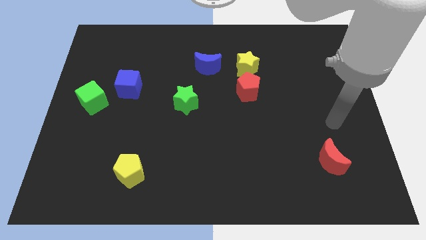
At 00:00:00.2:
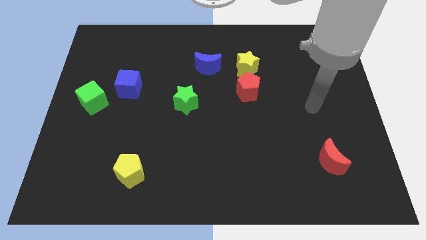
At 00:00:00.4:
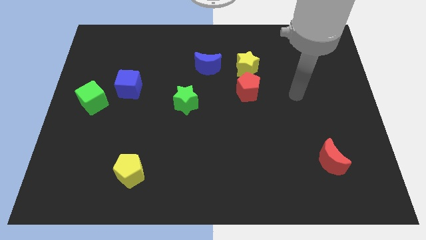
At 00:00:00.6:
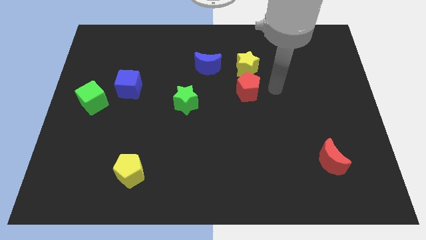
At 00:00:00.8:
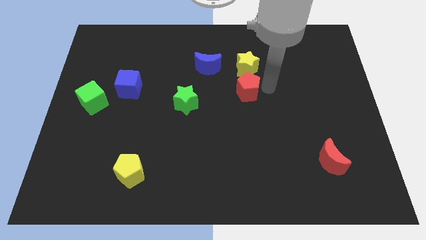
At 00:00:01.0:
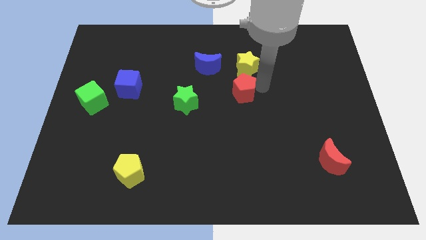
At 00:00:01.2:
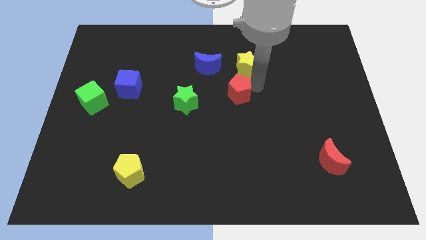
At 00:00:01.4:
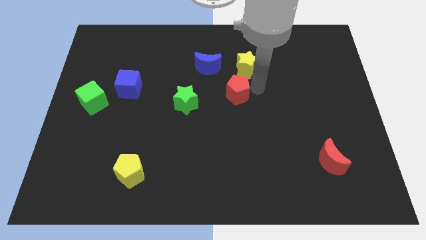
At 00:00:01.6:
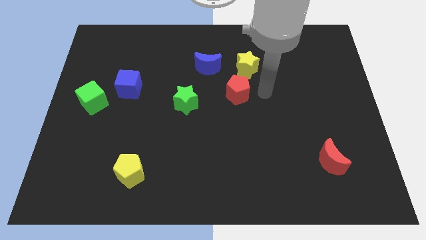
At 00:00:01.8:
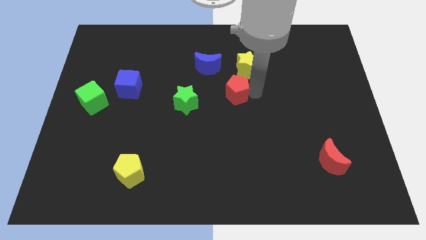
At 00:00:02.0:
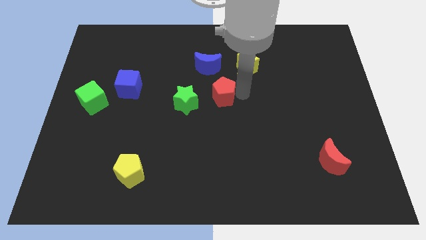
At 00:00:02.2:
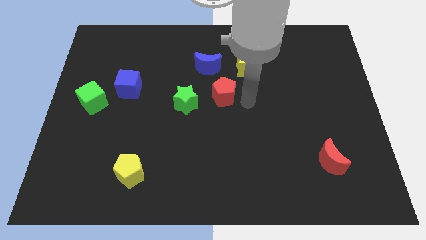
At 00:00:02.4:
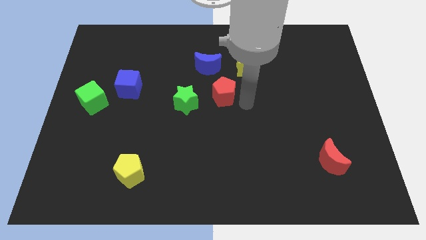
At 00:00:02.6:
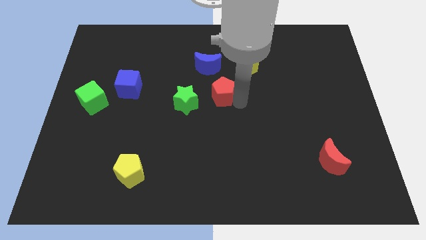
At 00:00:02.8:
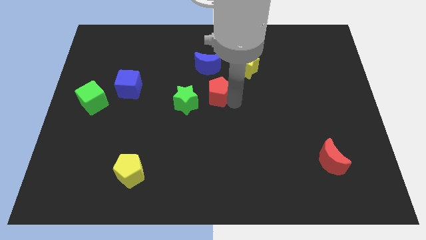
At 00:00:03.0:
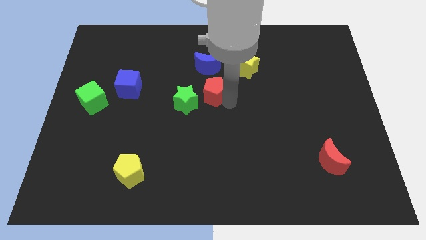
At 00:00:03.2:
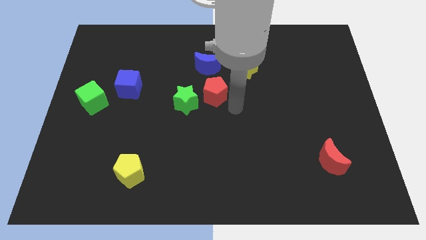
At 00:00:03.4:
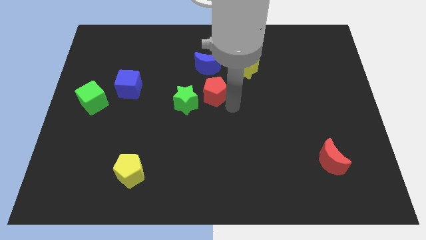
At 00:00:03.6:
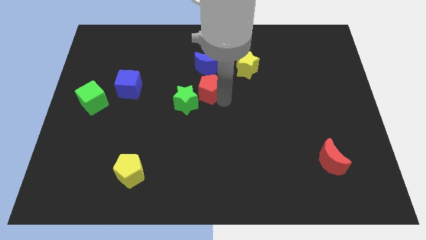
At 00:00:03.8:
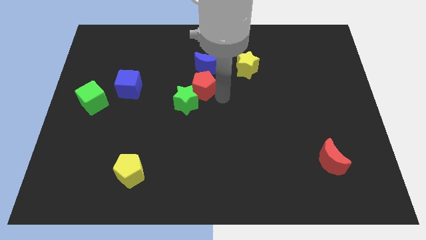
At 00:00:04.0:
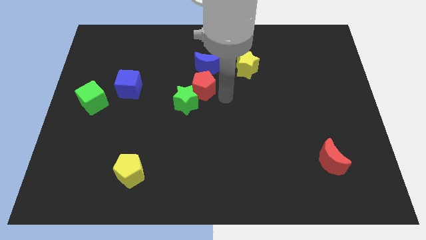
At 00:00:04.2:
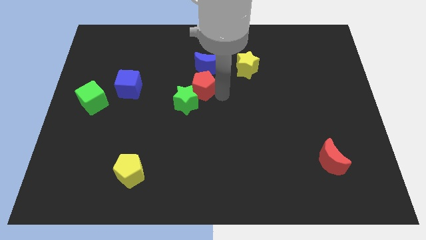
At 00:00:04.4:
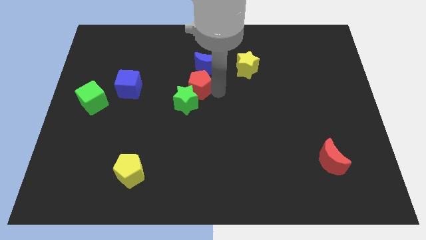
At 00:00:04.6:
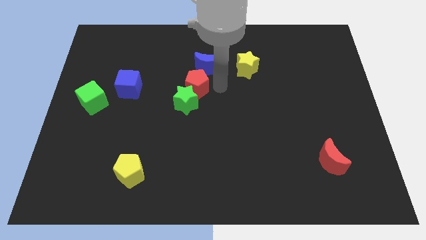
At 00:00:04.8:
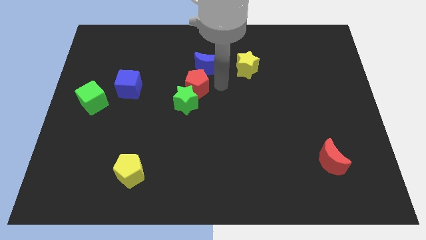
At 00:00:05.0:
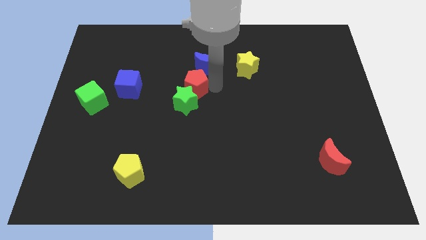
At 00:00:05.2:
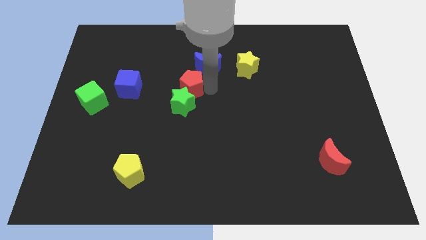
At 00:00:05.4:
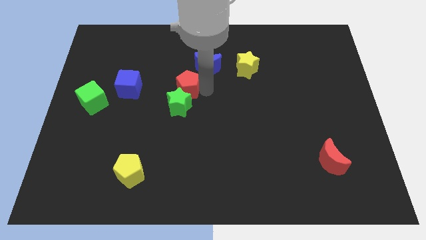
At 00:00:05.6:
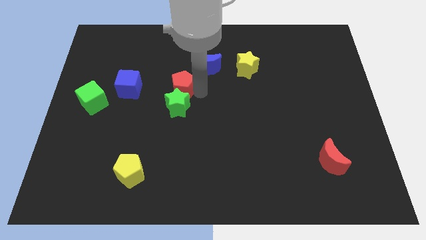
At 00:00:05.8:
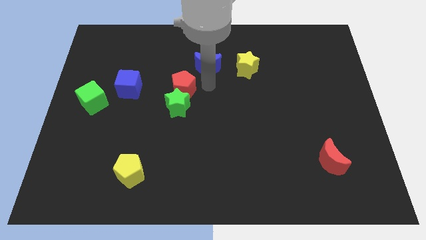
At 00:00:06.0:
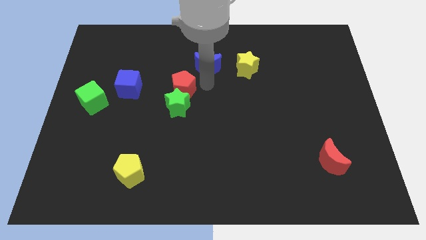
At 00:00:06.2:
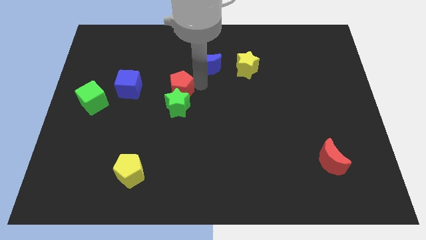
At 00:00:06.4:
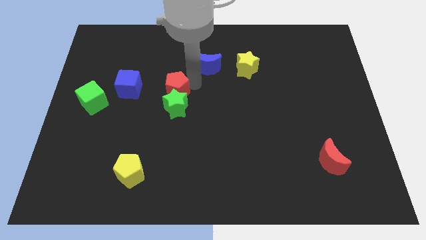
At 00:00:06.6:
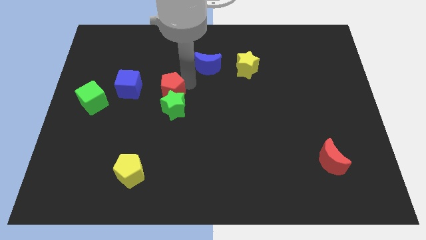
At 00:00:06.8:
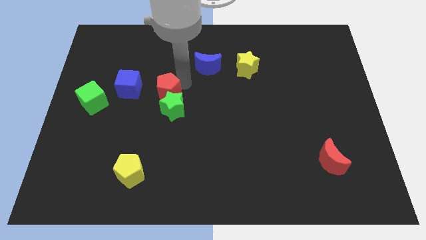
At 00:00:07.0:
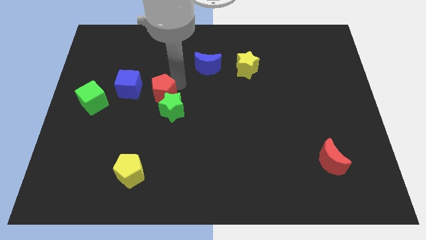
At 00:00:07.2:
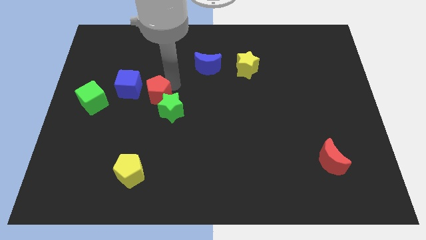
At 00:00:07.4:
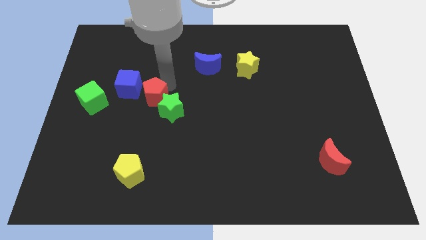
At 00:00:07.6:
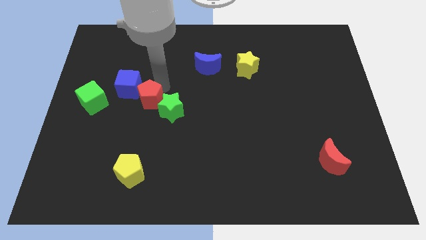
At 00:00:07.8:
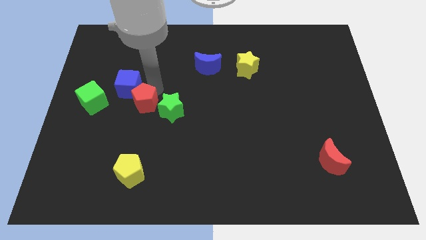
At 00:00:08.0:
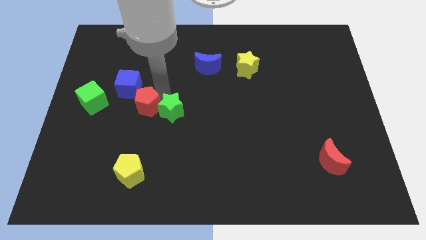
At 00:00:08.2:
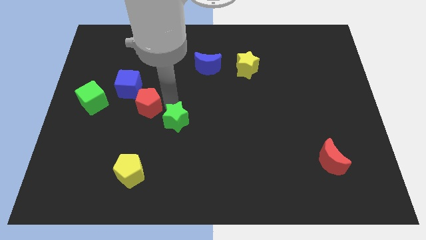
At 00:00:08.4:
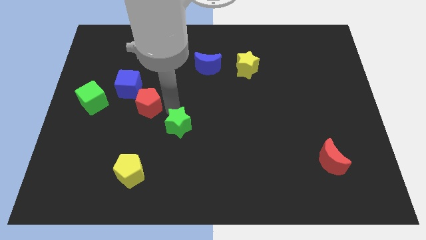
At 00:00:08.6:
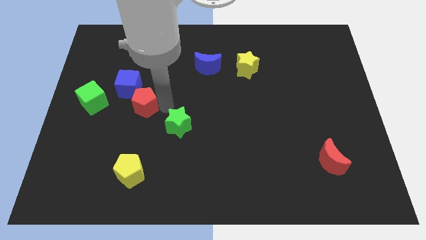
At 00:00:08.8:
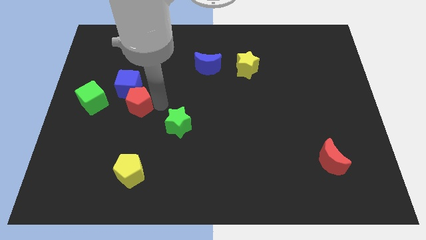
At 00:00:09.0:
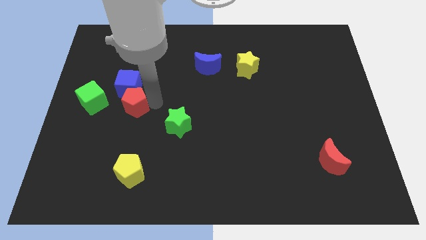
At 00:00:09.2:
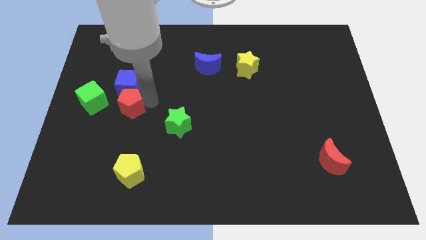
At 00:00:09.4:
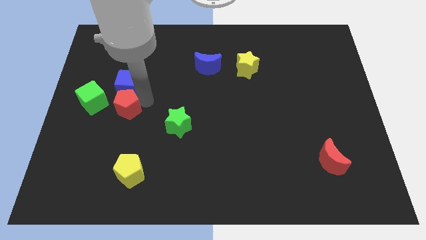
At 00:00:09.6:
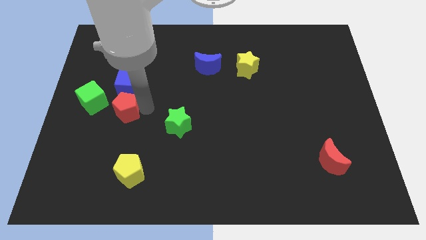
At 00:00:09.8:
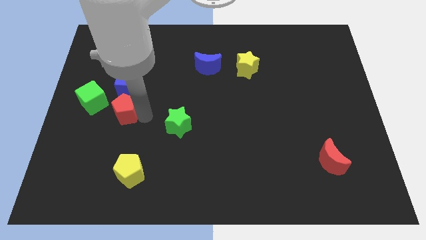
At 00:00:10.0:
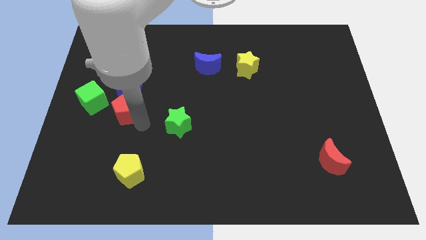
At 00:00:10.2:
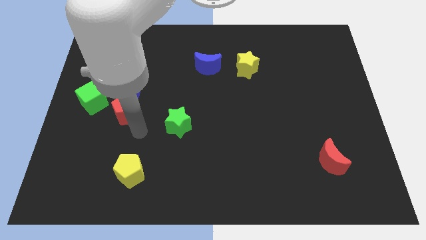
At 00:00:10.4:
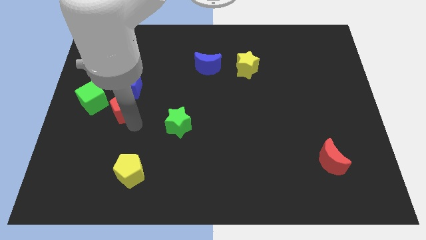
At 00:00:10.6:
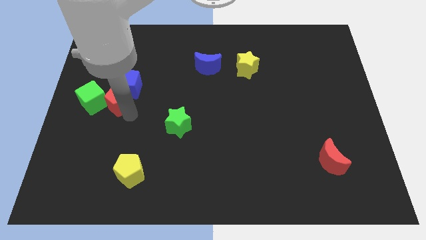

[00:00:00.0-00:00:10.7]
move the red pentagon towards the green cube

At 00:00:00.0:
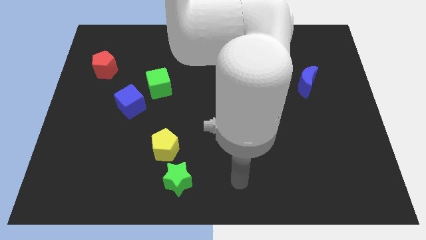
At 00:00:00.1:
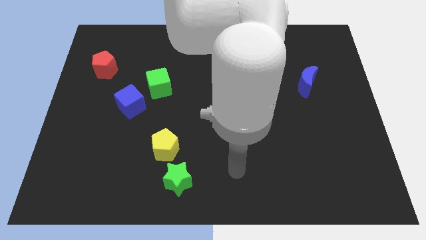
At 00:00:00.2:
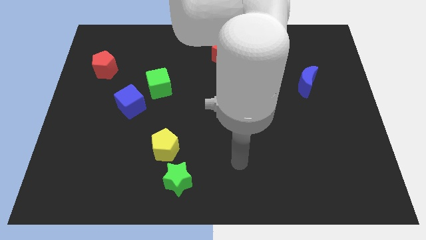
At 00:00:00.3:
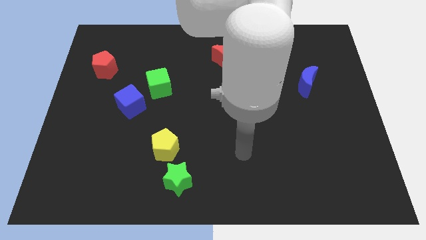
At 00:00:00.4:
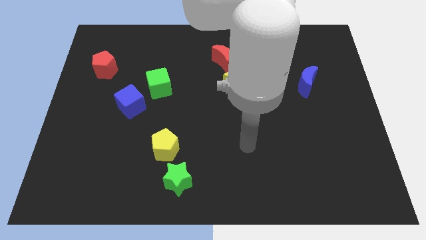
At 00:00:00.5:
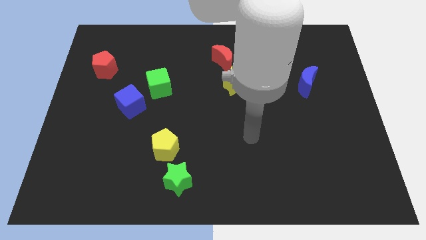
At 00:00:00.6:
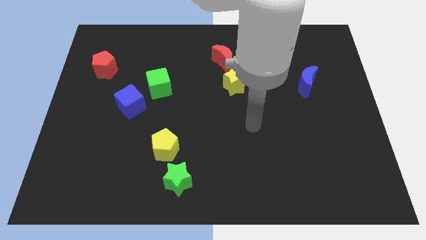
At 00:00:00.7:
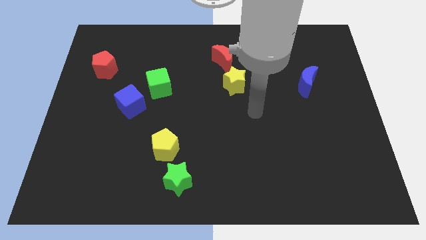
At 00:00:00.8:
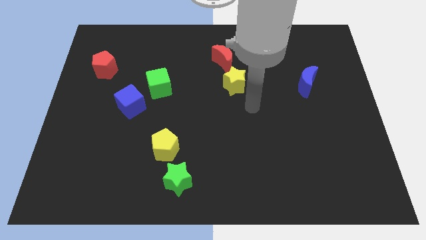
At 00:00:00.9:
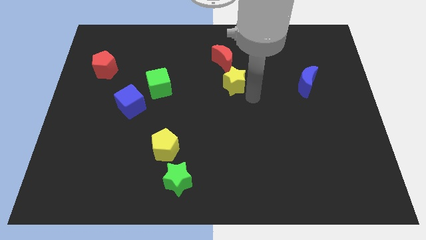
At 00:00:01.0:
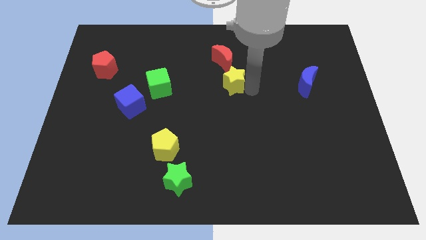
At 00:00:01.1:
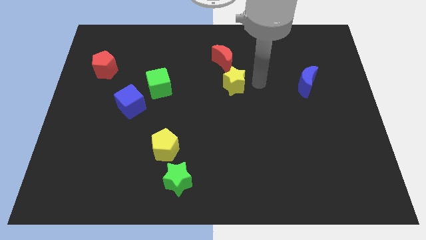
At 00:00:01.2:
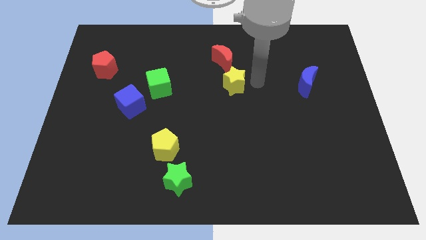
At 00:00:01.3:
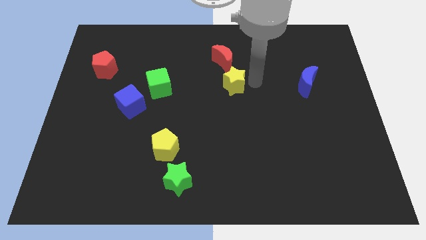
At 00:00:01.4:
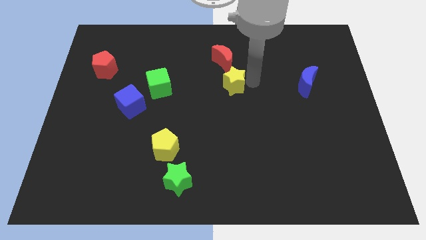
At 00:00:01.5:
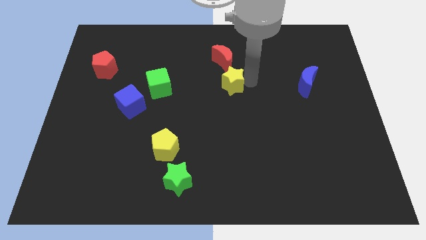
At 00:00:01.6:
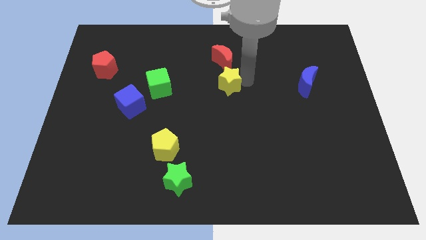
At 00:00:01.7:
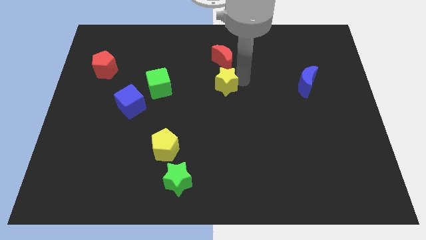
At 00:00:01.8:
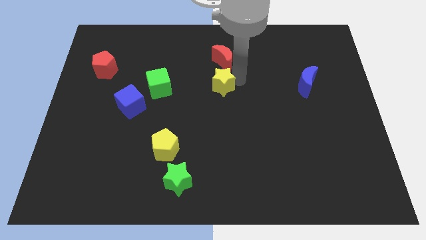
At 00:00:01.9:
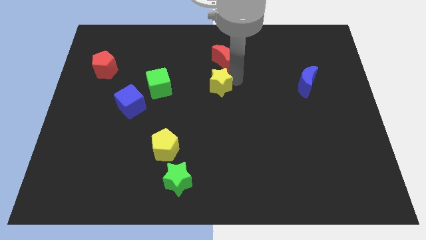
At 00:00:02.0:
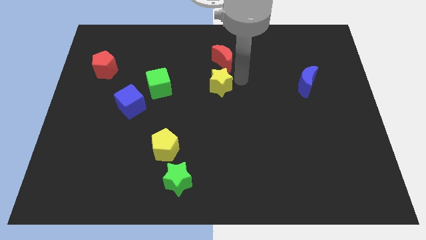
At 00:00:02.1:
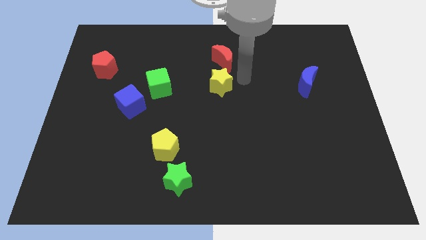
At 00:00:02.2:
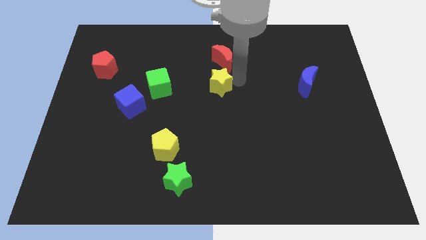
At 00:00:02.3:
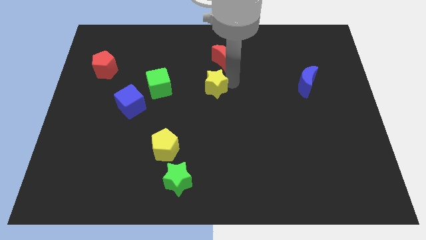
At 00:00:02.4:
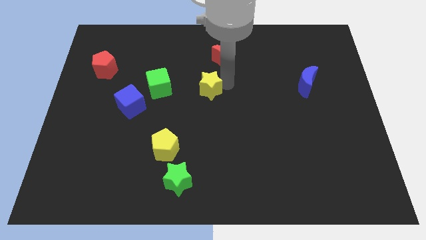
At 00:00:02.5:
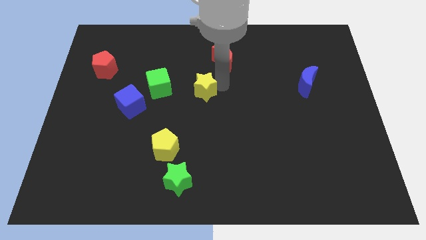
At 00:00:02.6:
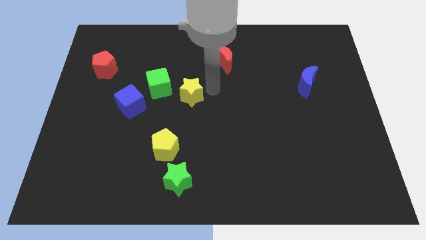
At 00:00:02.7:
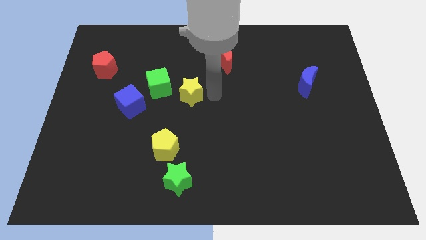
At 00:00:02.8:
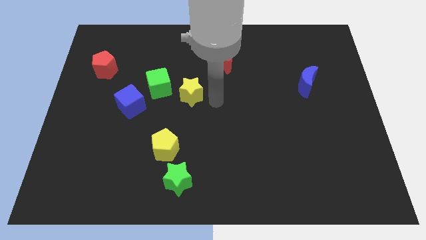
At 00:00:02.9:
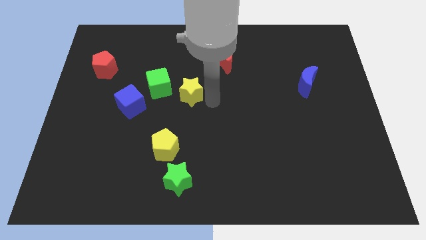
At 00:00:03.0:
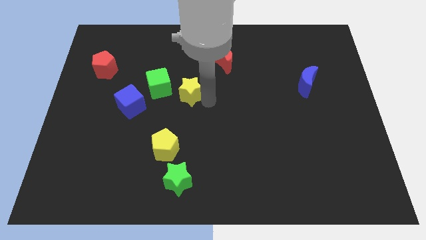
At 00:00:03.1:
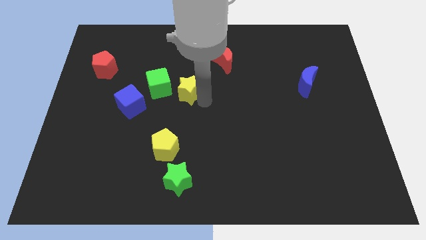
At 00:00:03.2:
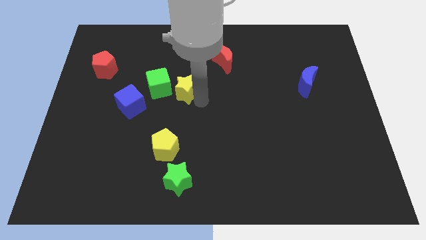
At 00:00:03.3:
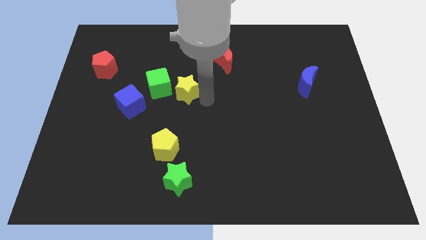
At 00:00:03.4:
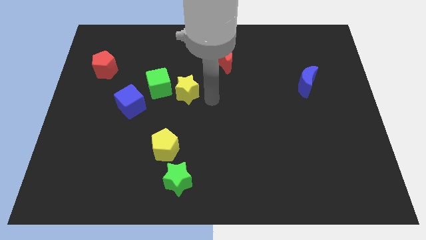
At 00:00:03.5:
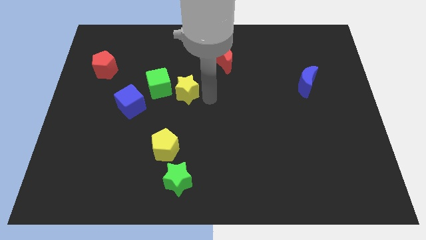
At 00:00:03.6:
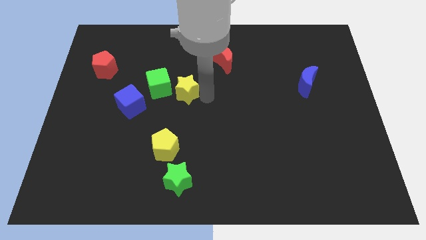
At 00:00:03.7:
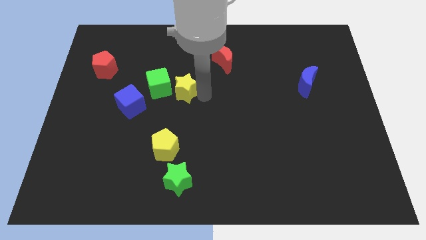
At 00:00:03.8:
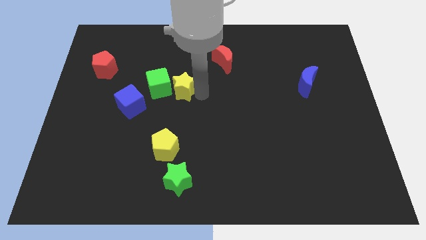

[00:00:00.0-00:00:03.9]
push the yellow star next to the green cube
